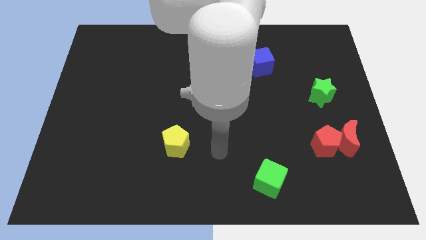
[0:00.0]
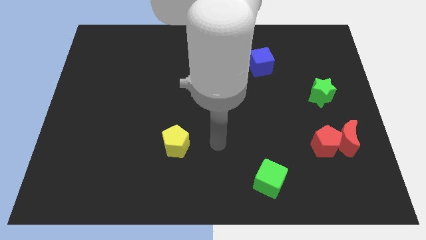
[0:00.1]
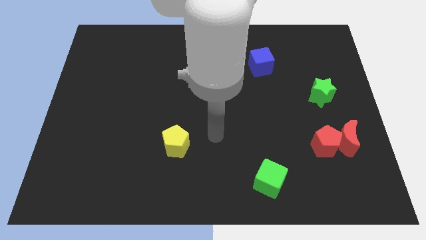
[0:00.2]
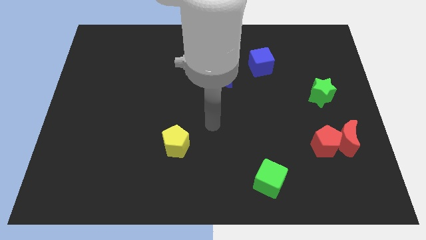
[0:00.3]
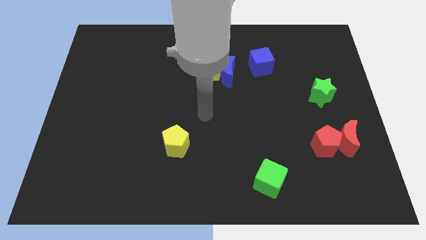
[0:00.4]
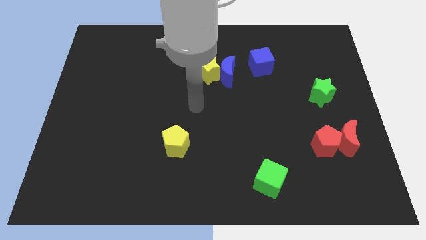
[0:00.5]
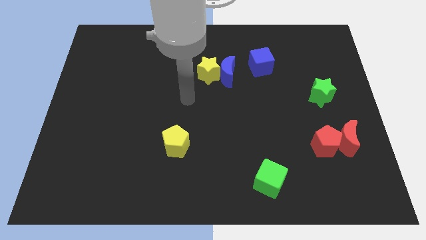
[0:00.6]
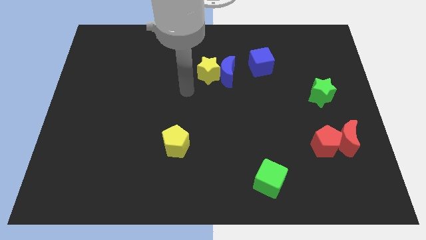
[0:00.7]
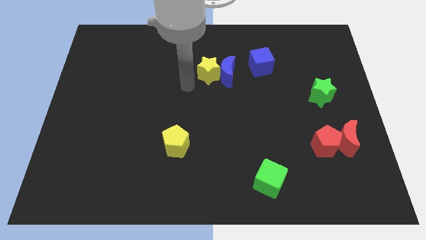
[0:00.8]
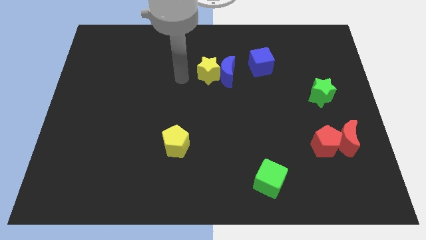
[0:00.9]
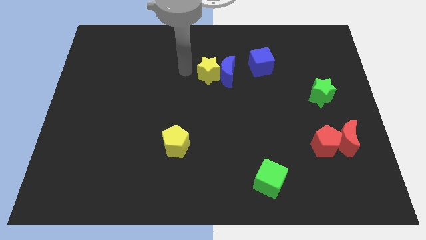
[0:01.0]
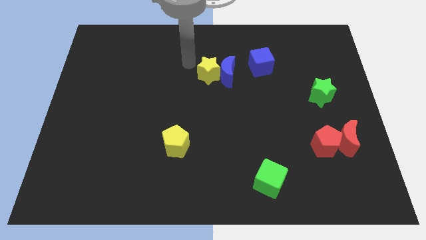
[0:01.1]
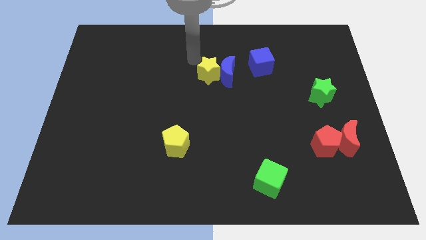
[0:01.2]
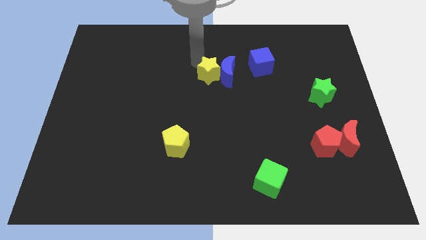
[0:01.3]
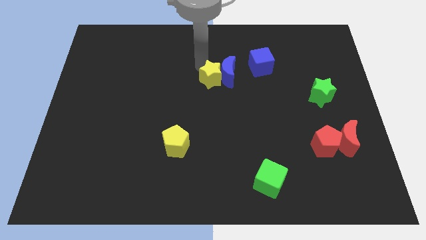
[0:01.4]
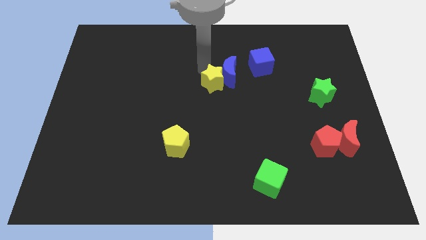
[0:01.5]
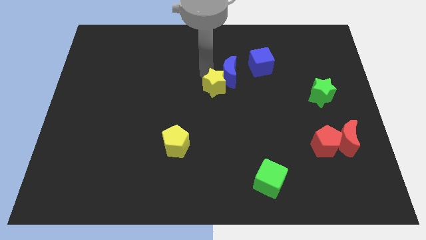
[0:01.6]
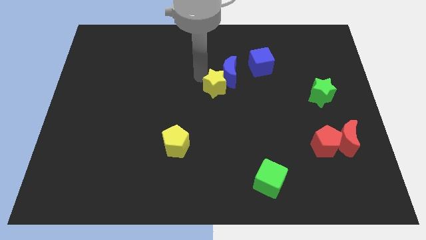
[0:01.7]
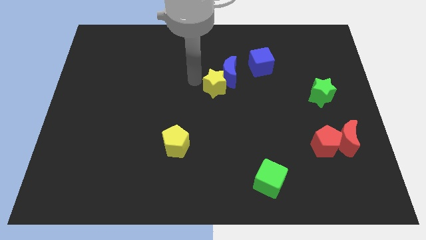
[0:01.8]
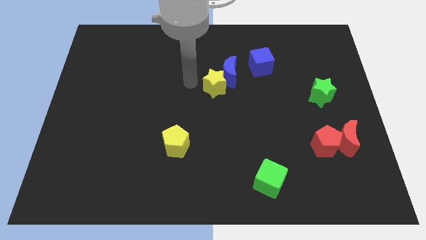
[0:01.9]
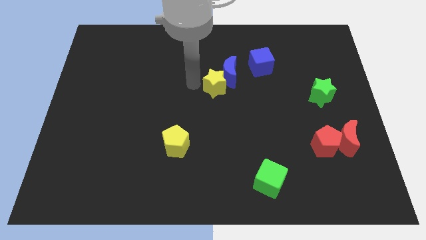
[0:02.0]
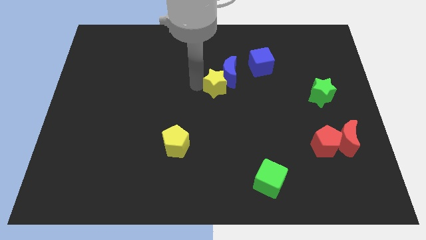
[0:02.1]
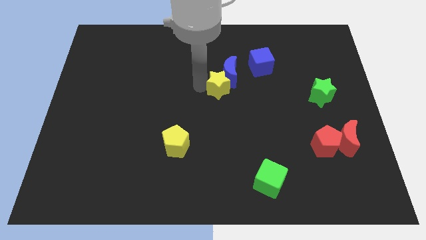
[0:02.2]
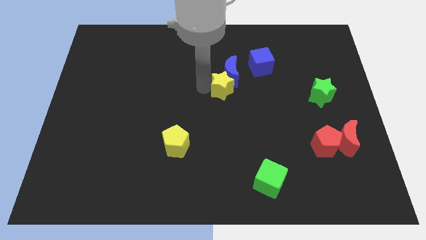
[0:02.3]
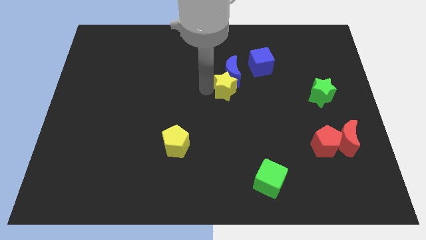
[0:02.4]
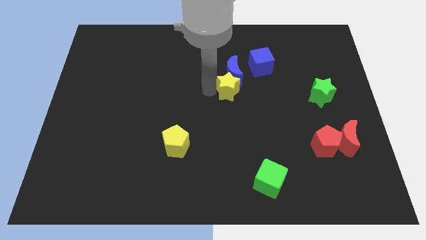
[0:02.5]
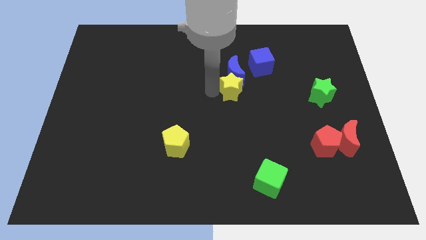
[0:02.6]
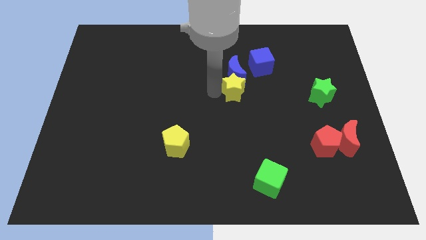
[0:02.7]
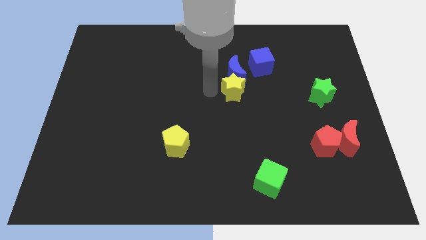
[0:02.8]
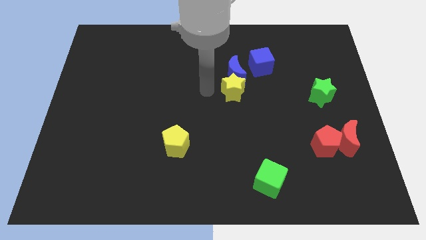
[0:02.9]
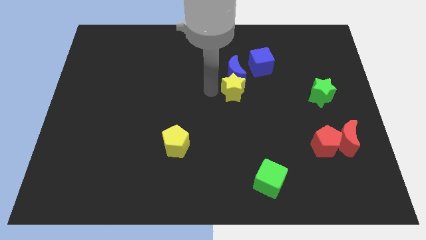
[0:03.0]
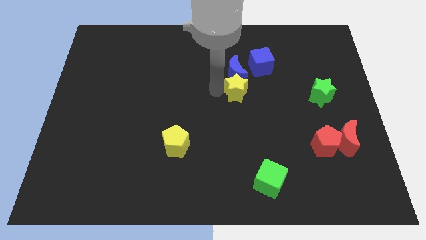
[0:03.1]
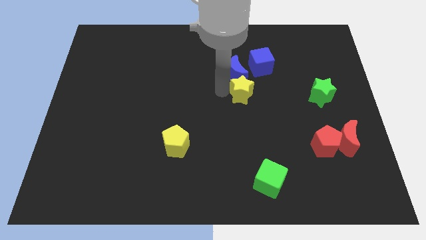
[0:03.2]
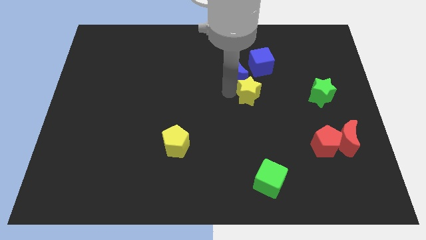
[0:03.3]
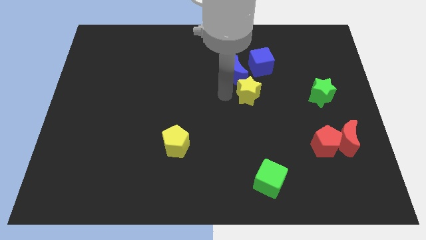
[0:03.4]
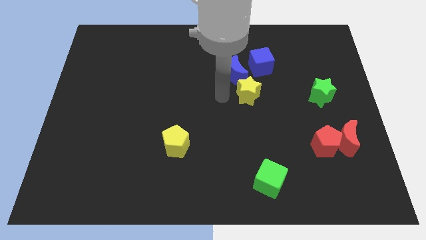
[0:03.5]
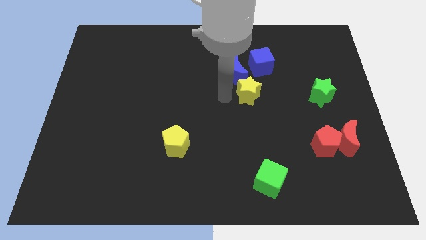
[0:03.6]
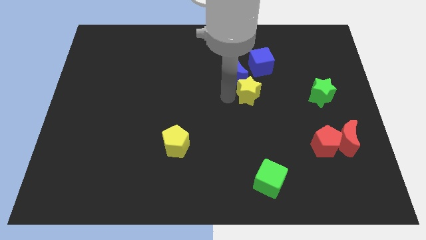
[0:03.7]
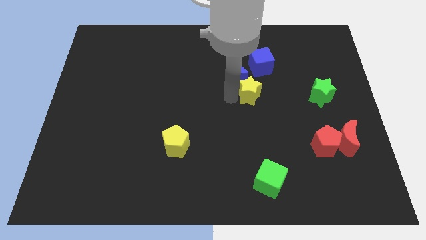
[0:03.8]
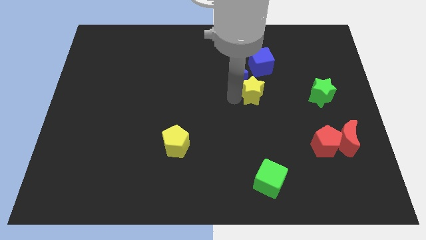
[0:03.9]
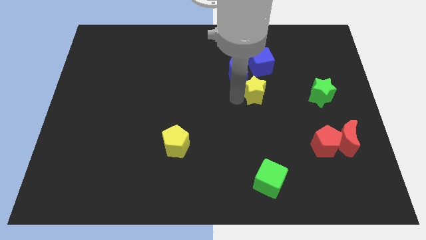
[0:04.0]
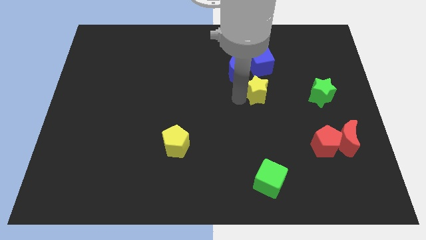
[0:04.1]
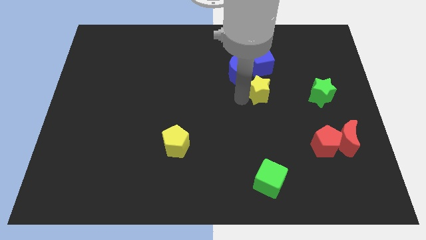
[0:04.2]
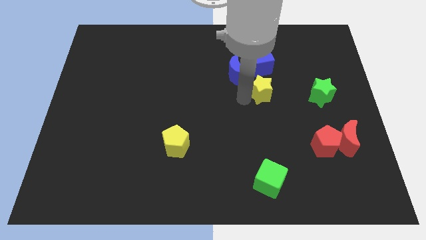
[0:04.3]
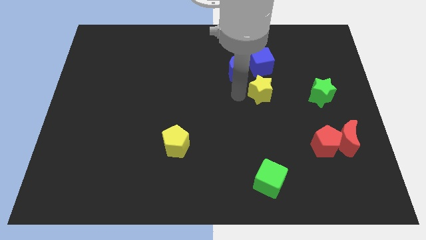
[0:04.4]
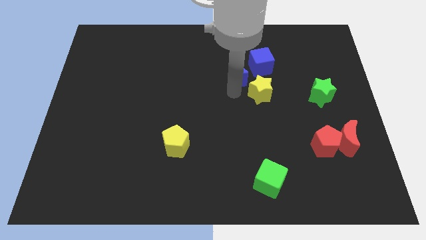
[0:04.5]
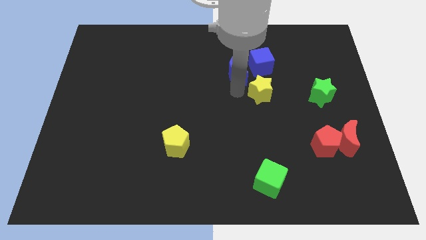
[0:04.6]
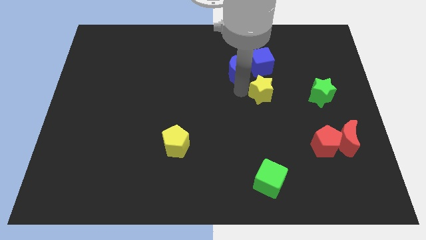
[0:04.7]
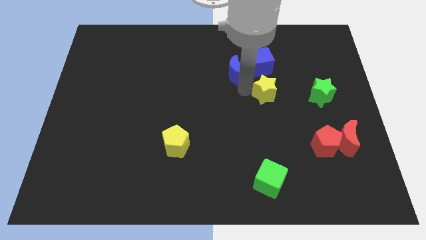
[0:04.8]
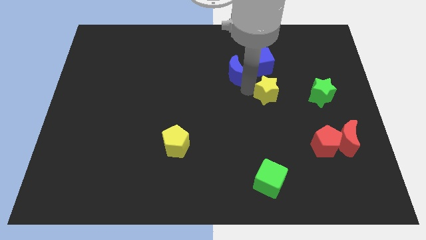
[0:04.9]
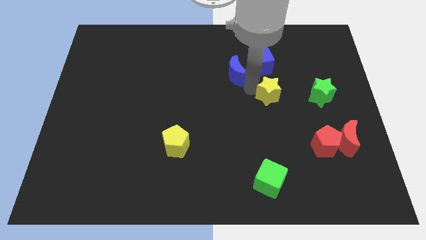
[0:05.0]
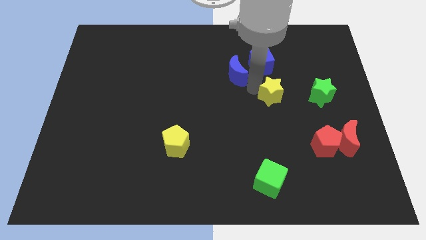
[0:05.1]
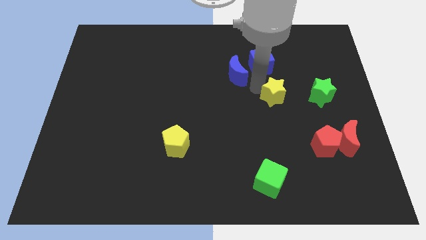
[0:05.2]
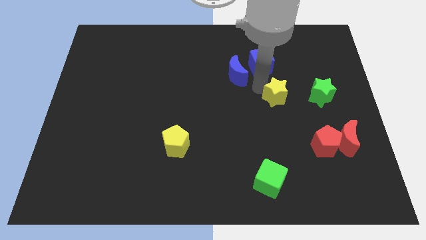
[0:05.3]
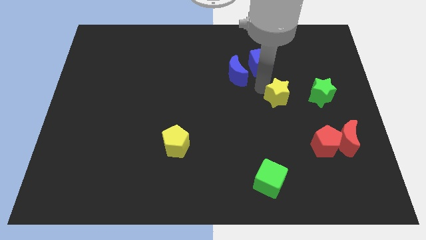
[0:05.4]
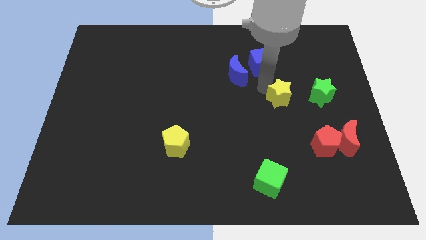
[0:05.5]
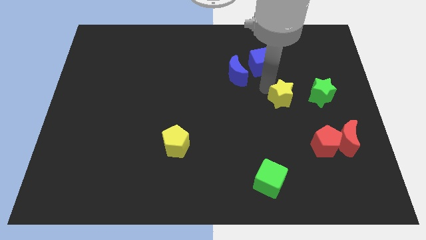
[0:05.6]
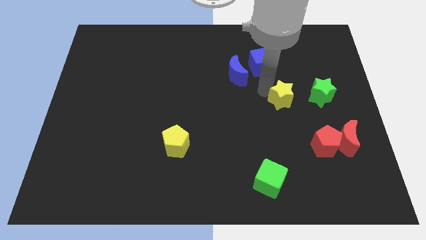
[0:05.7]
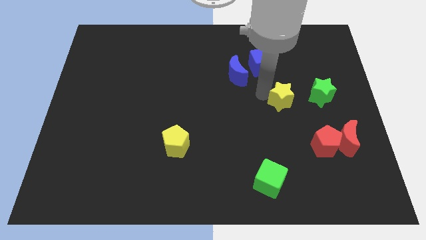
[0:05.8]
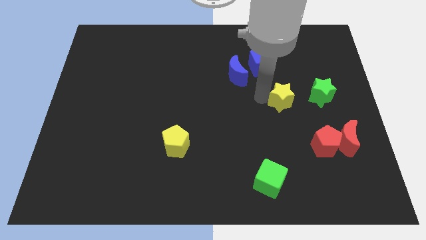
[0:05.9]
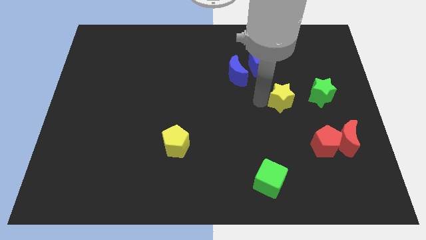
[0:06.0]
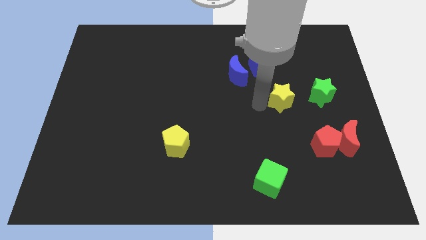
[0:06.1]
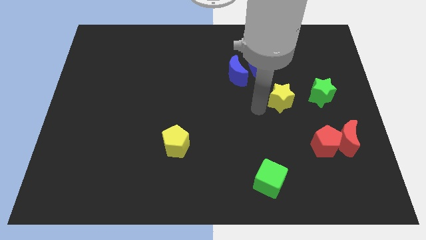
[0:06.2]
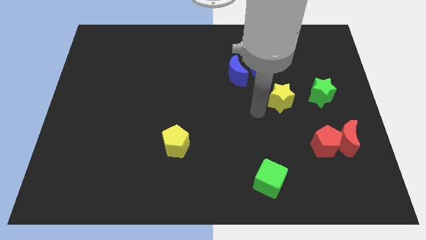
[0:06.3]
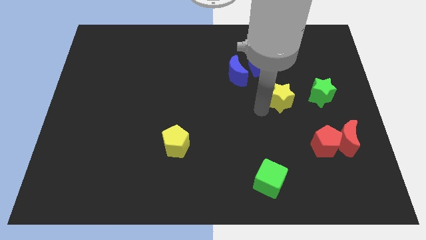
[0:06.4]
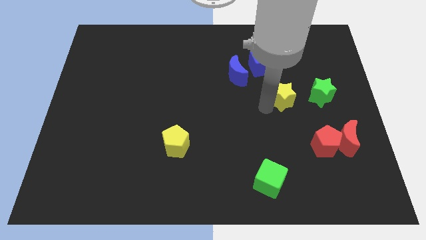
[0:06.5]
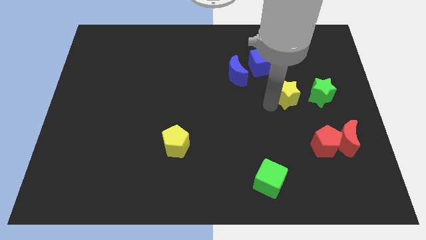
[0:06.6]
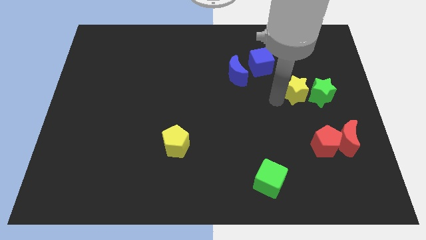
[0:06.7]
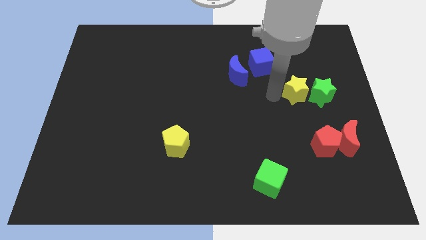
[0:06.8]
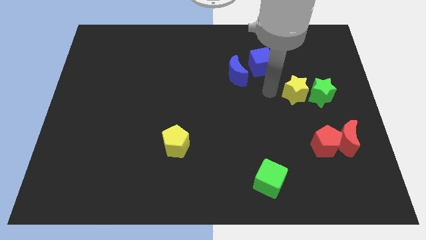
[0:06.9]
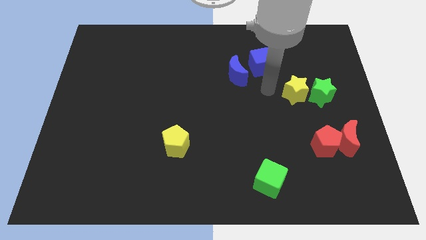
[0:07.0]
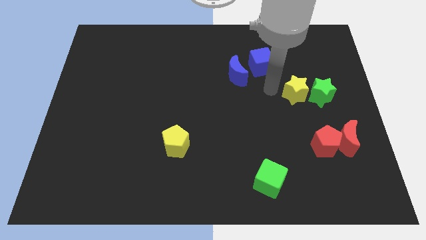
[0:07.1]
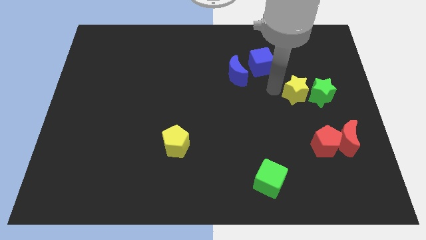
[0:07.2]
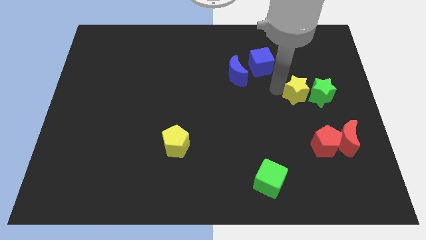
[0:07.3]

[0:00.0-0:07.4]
move the yellow star next to the green star
